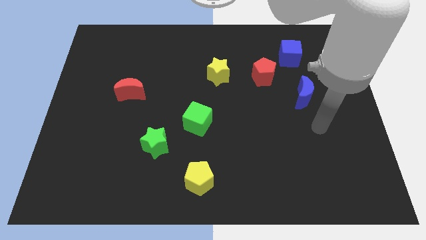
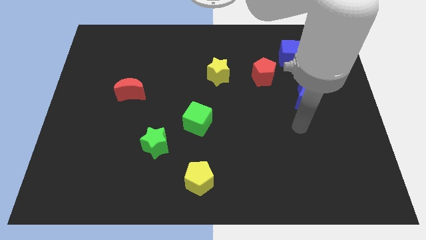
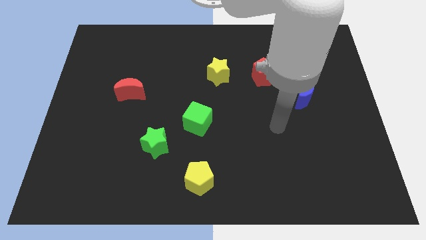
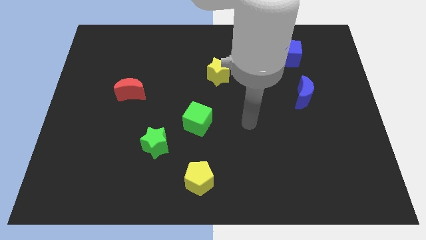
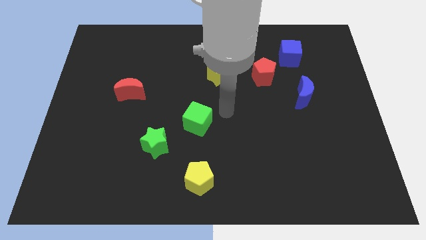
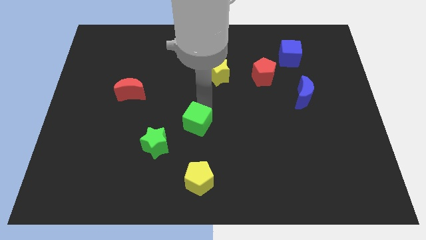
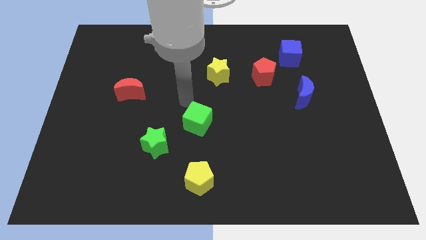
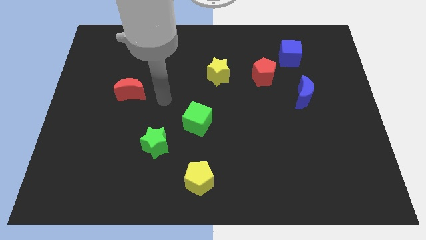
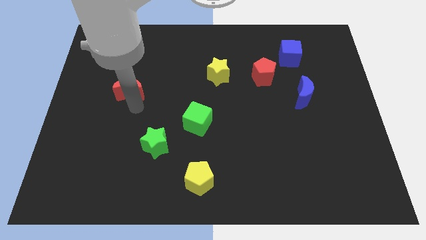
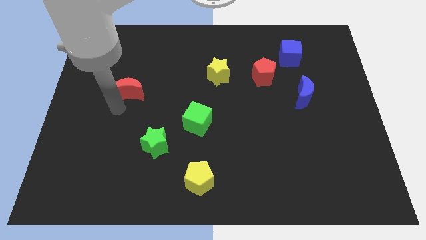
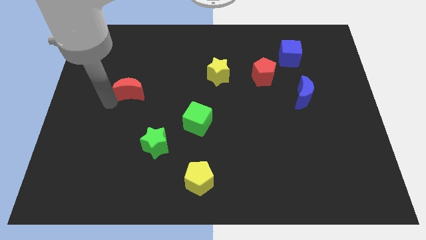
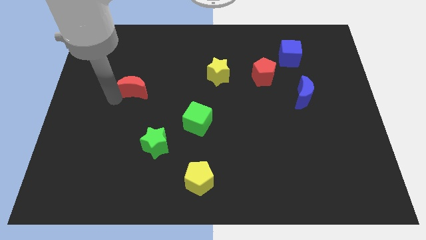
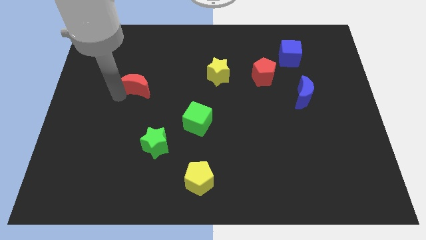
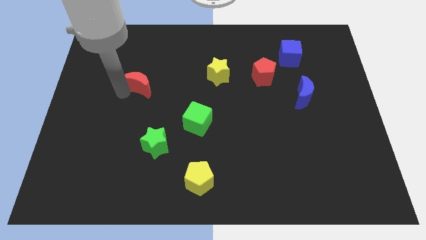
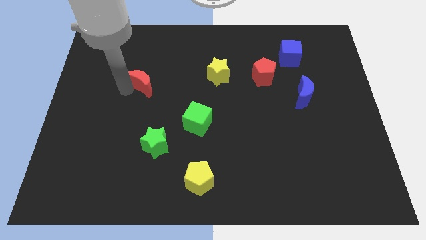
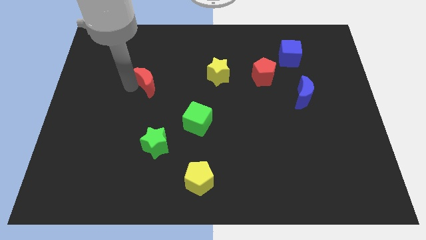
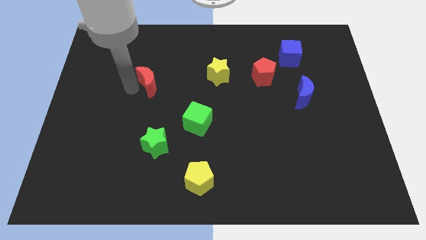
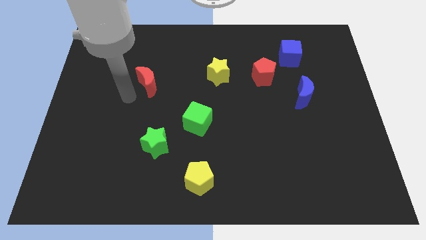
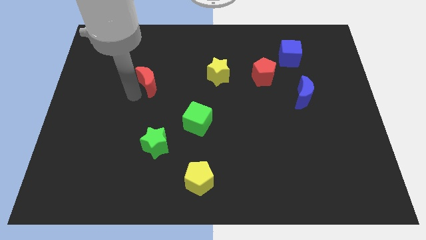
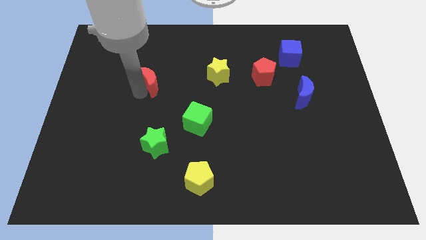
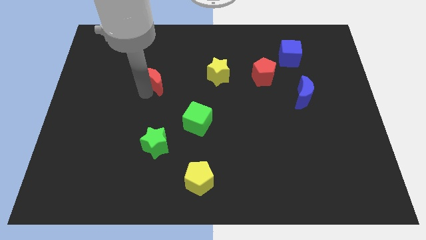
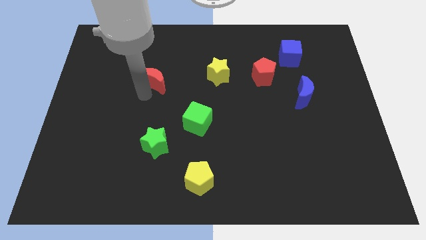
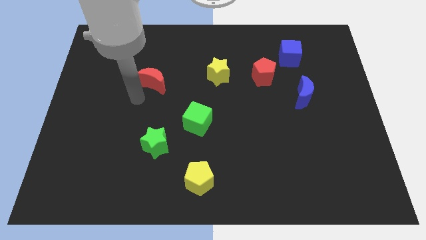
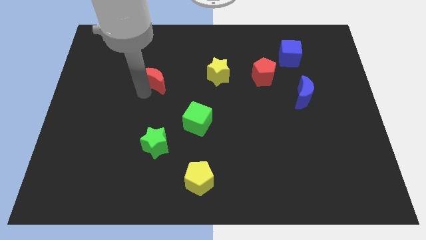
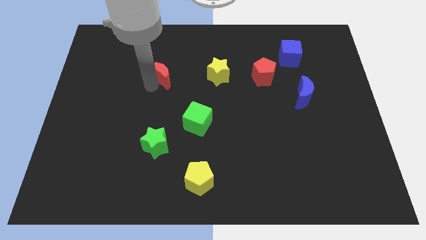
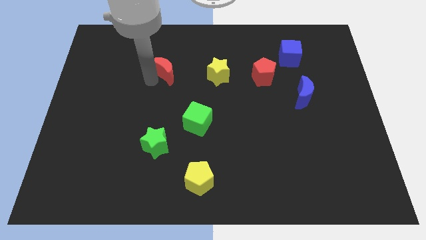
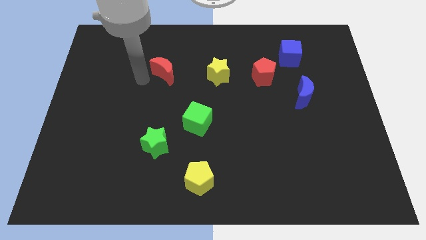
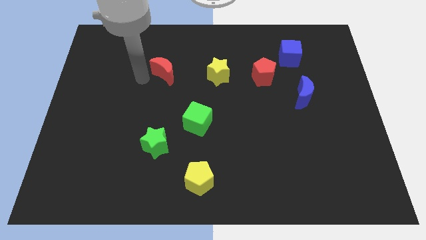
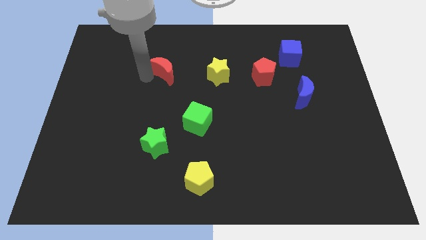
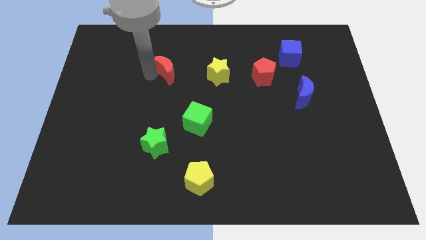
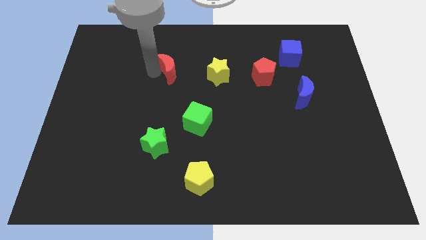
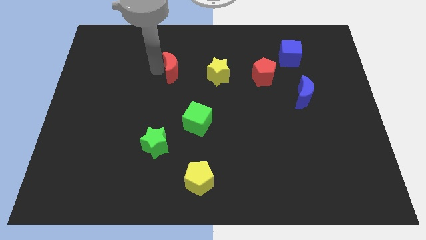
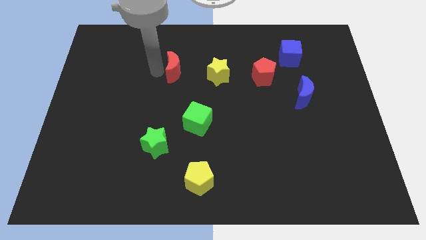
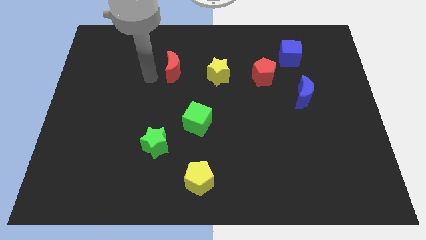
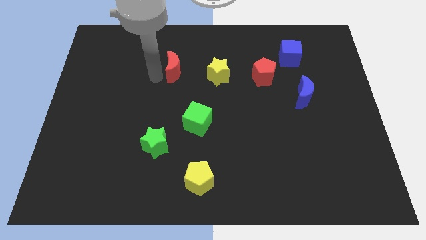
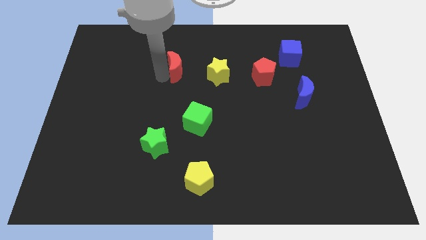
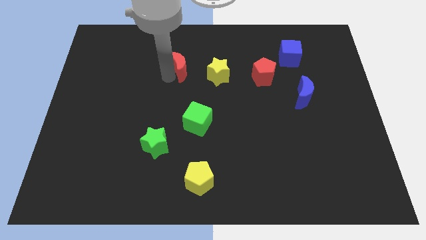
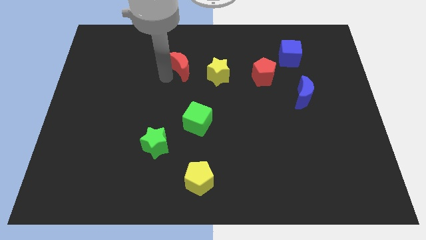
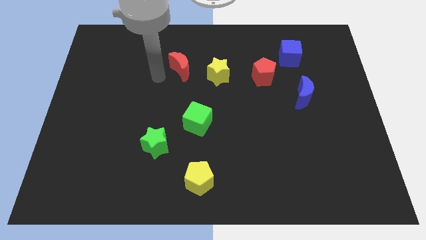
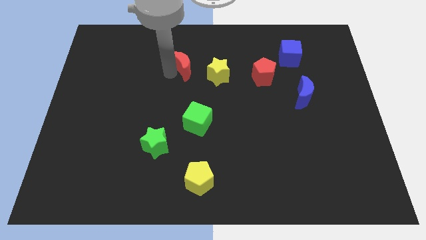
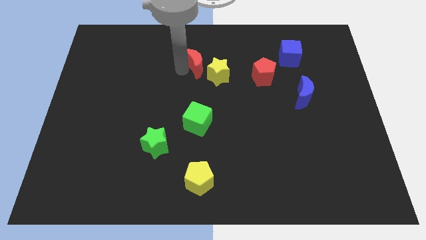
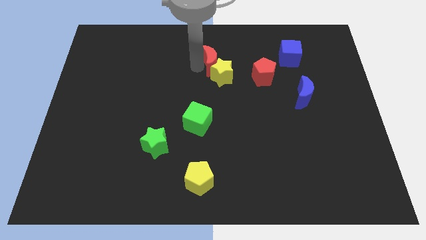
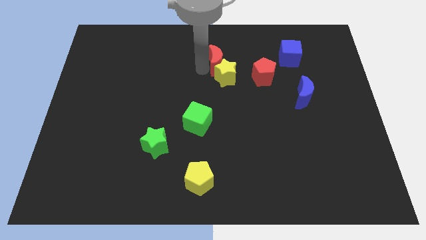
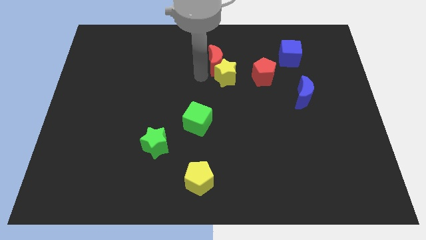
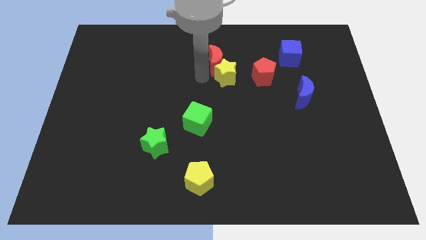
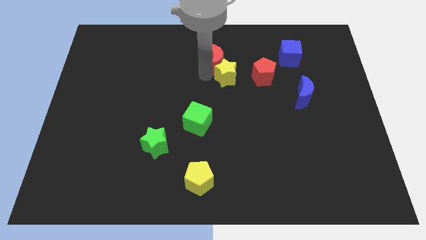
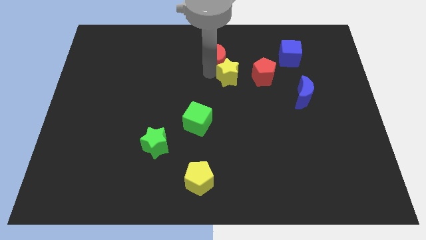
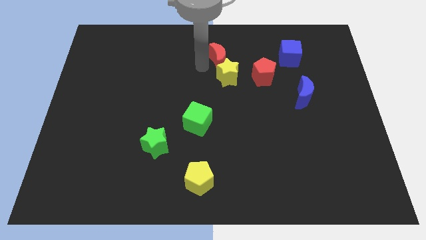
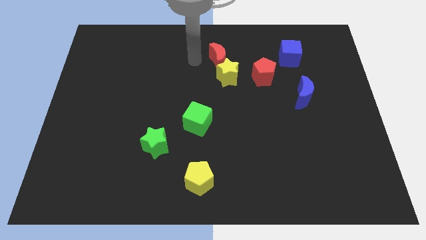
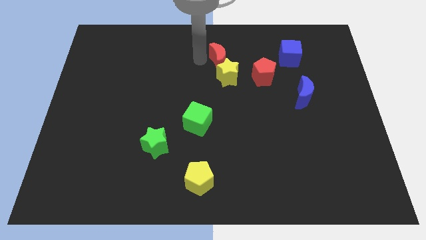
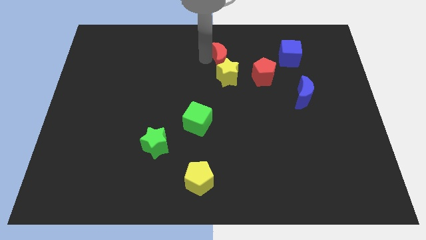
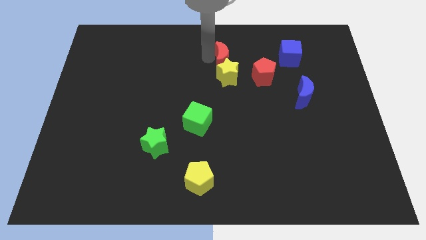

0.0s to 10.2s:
move the red moon to the top right of the yellow star

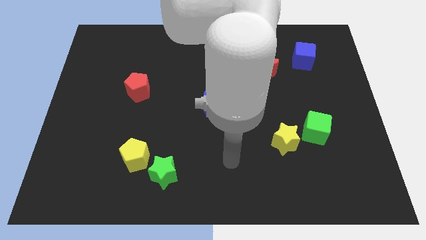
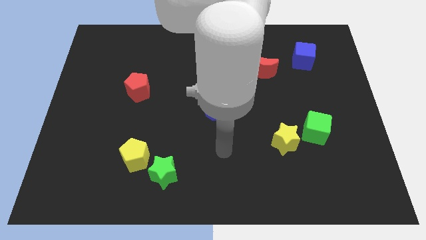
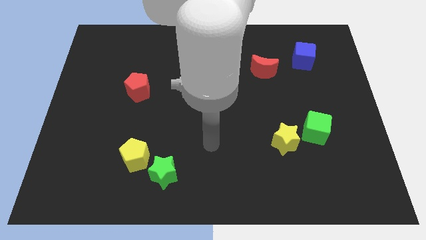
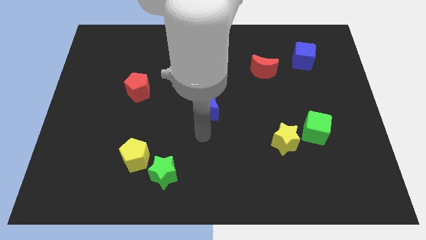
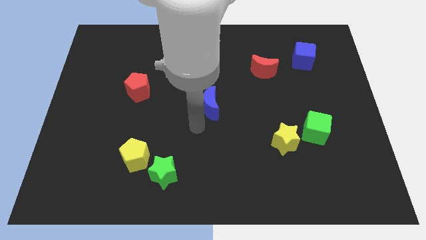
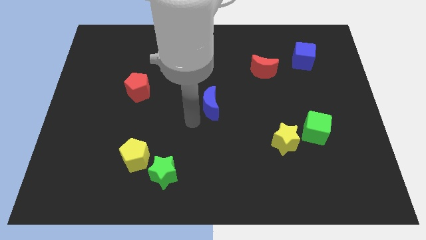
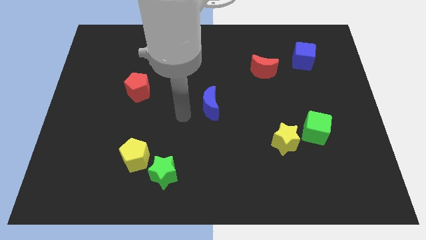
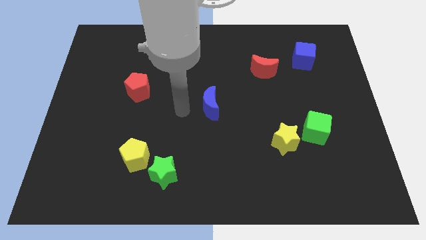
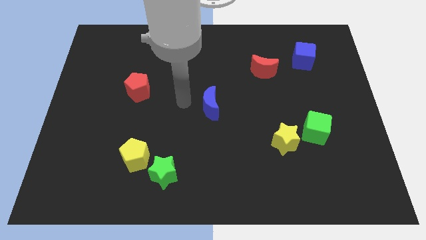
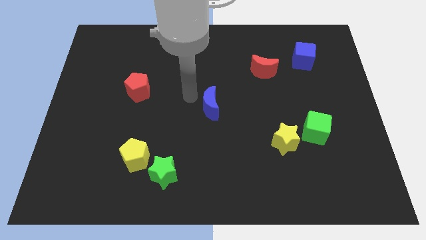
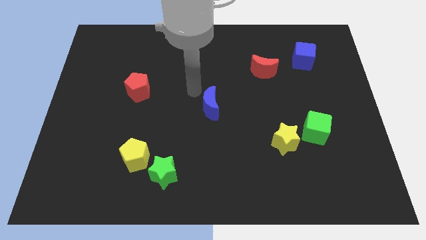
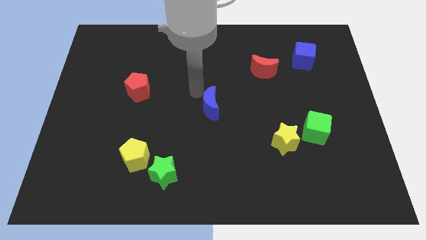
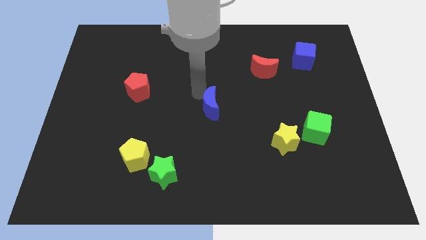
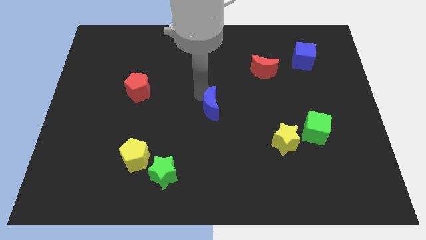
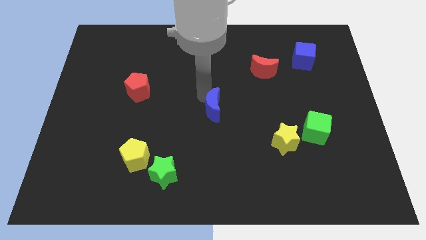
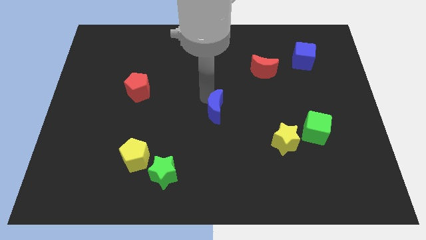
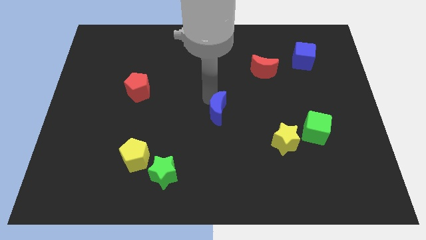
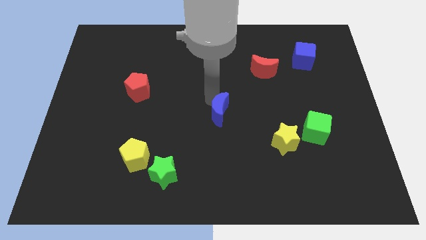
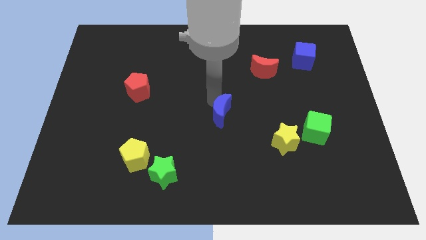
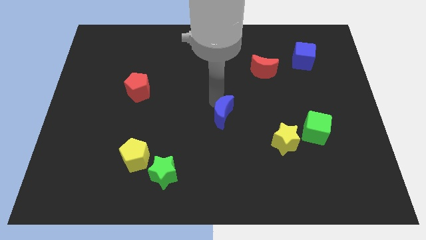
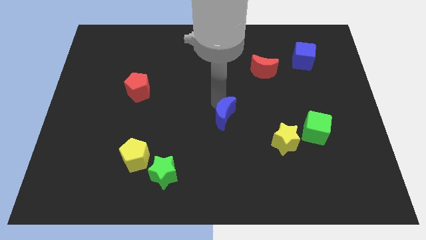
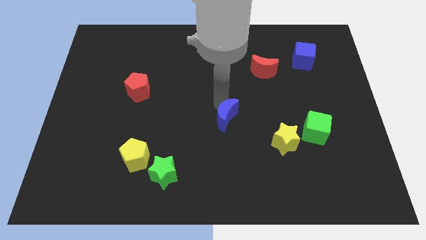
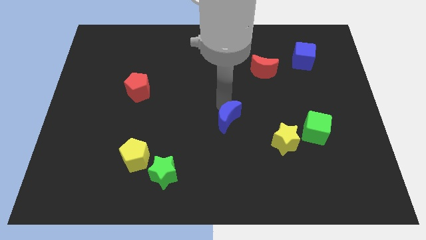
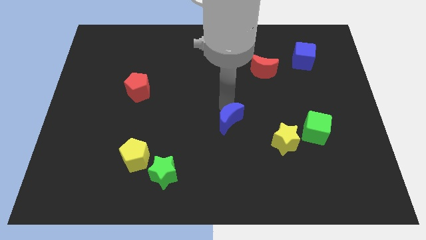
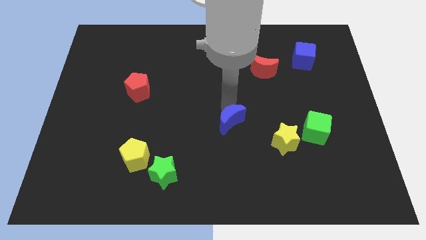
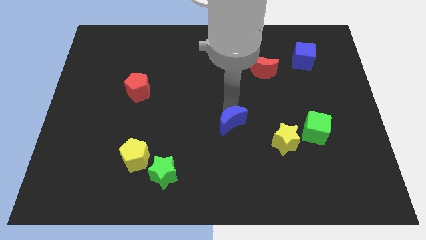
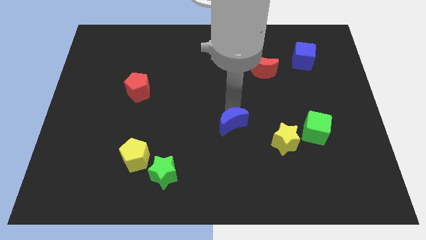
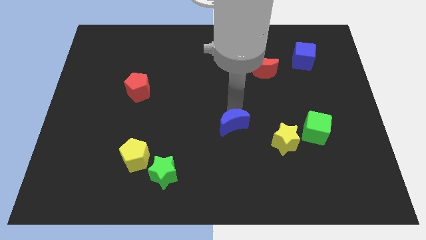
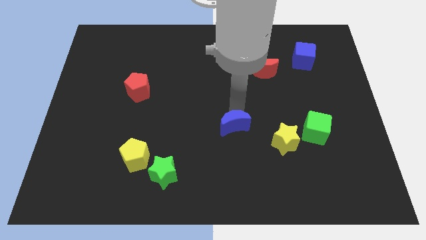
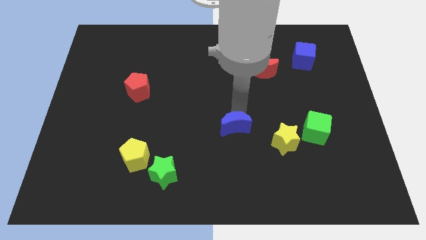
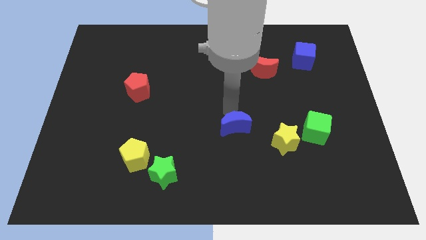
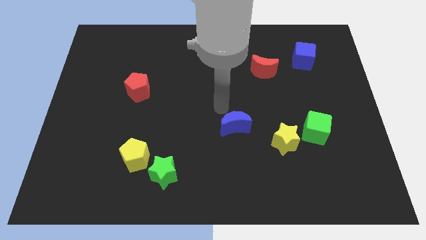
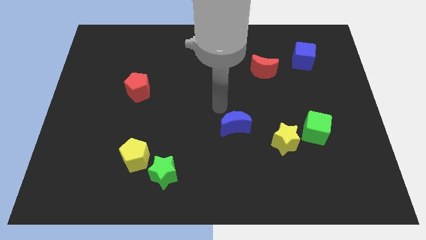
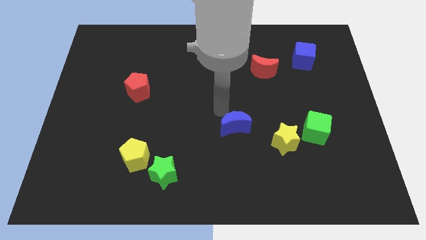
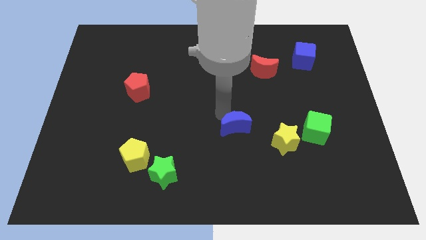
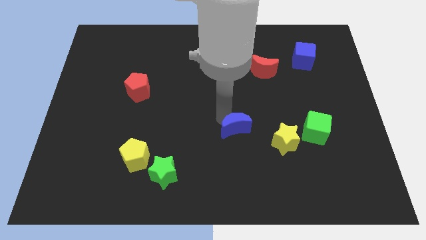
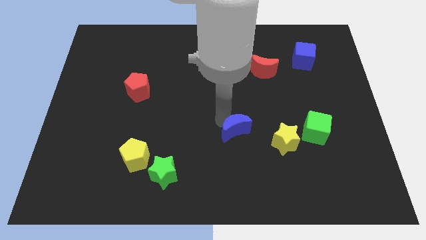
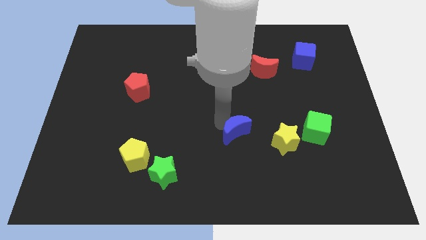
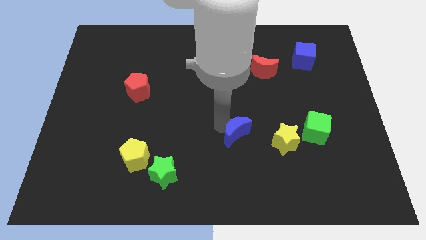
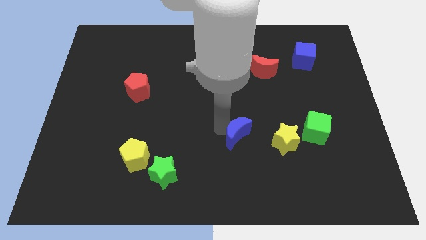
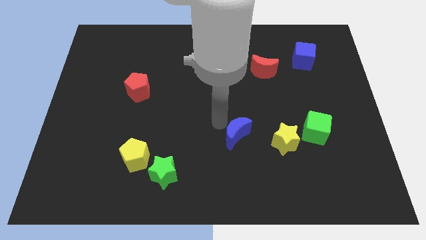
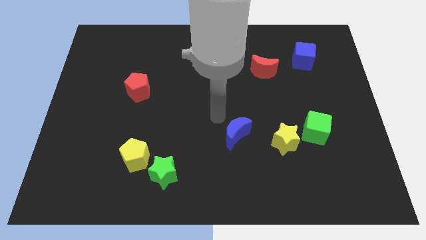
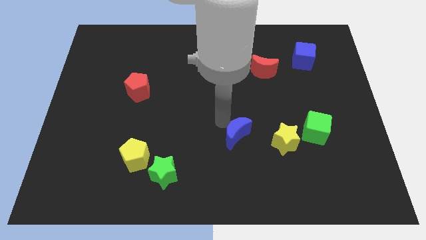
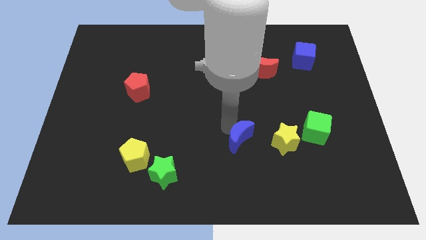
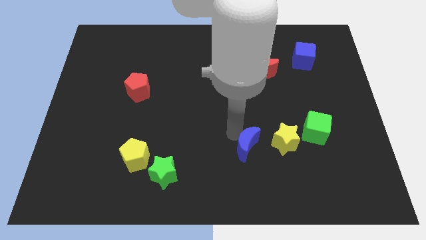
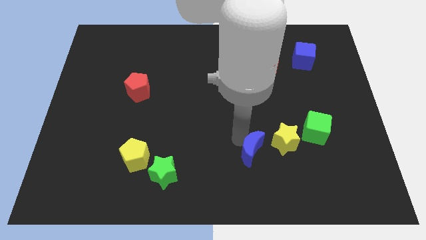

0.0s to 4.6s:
put the blue moon diagonally down and to the left of the yellow star
